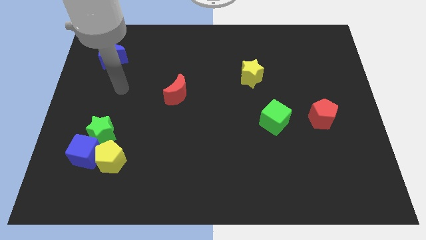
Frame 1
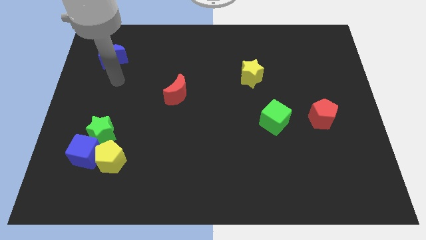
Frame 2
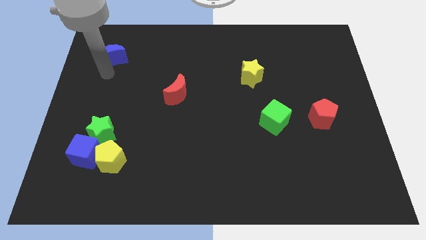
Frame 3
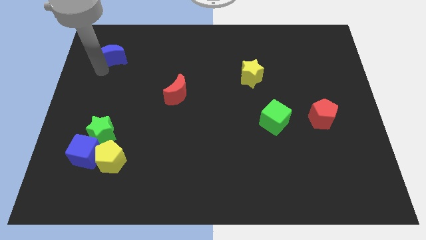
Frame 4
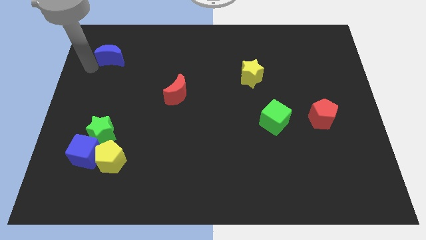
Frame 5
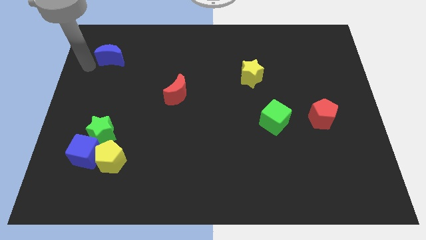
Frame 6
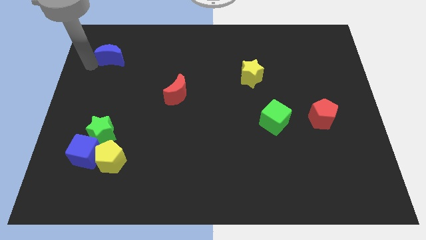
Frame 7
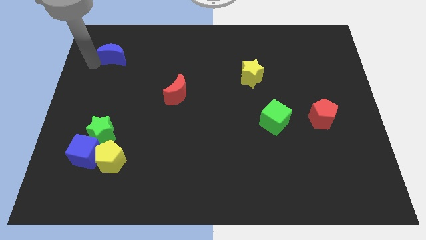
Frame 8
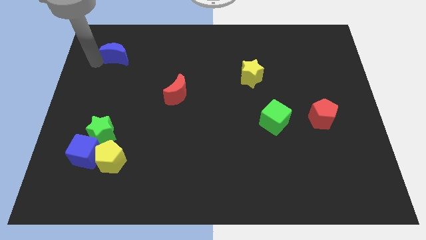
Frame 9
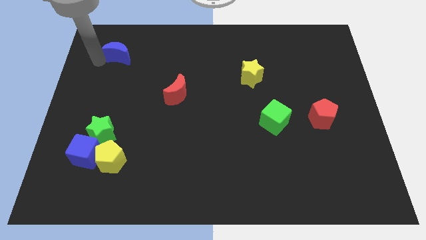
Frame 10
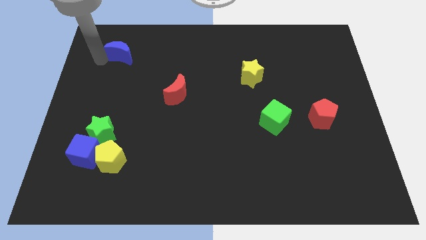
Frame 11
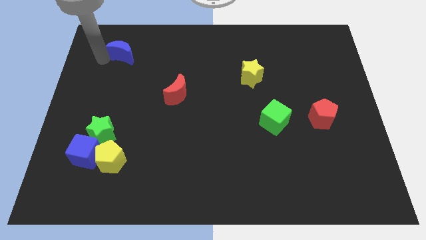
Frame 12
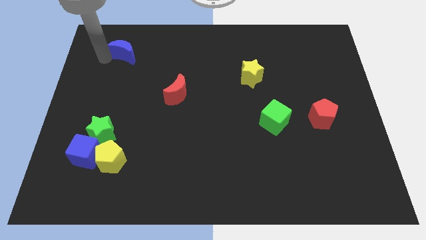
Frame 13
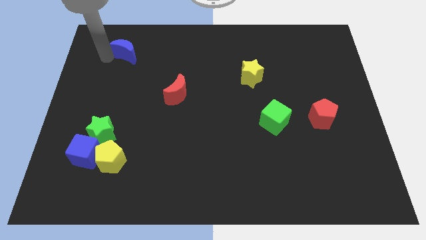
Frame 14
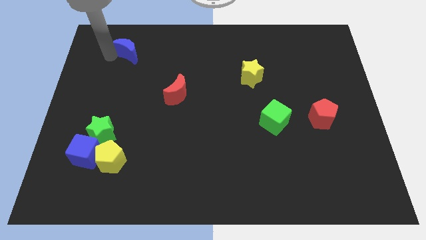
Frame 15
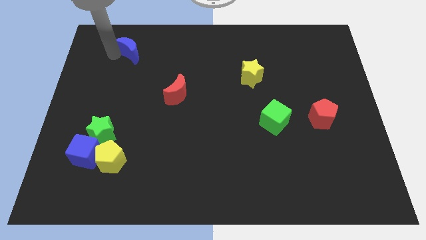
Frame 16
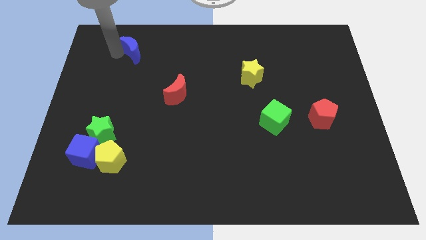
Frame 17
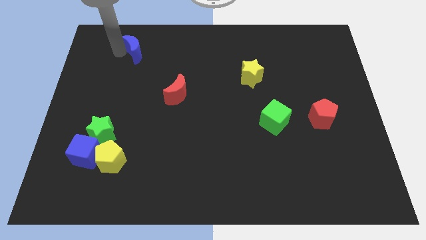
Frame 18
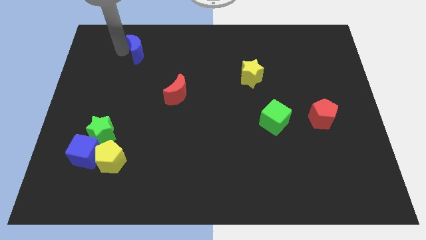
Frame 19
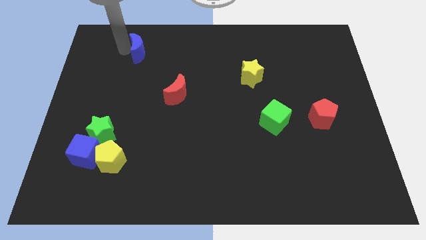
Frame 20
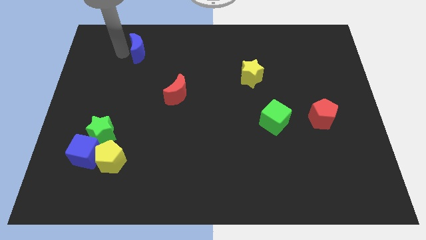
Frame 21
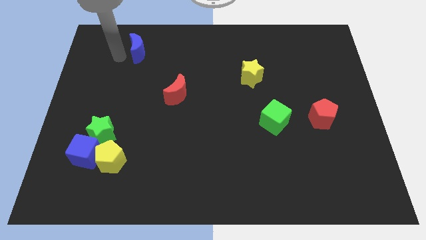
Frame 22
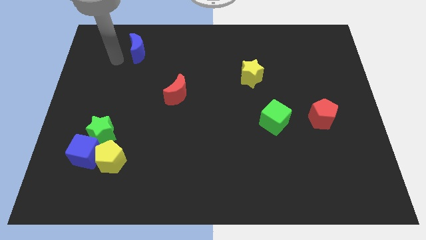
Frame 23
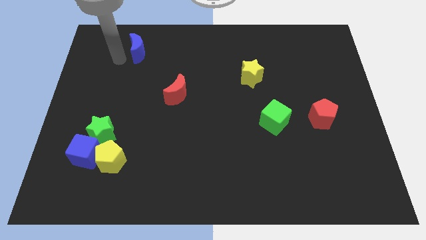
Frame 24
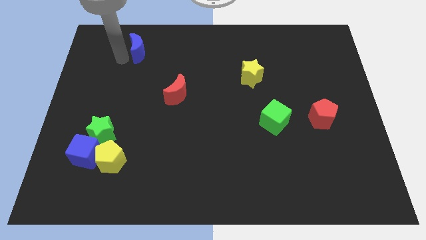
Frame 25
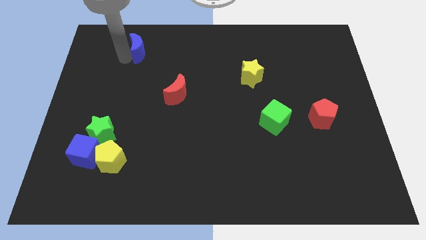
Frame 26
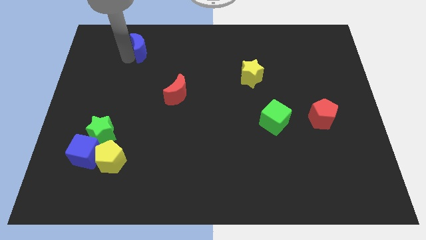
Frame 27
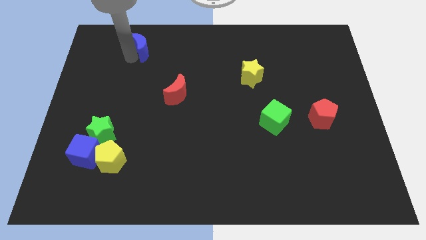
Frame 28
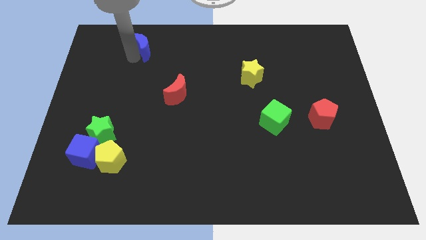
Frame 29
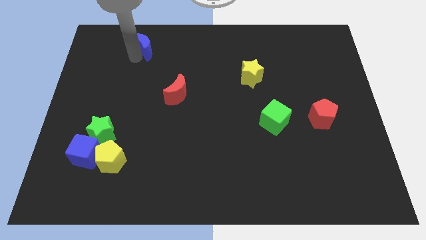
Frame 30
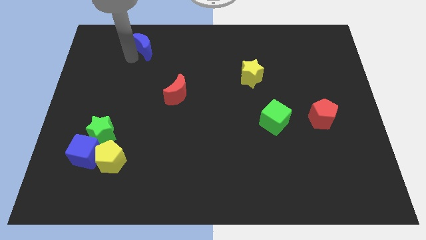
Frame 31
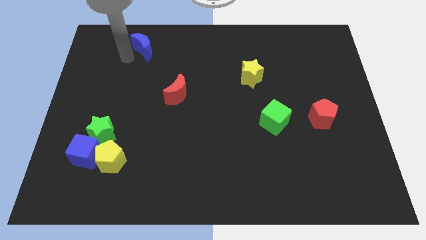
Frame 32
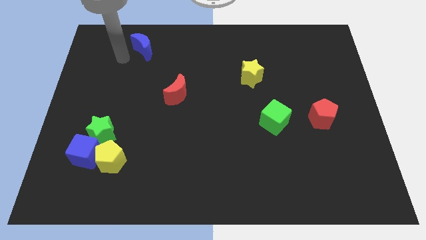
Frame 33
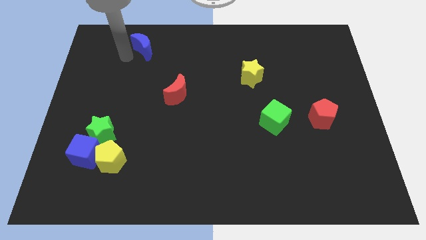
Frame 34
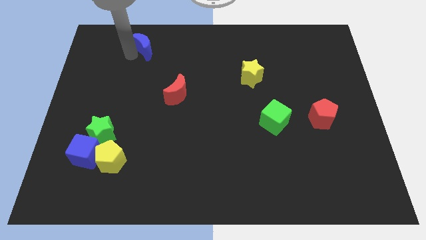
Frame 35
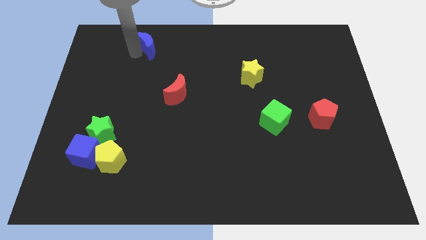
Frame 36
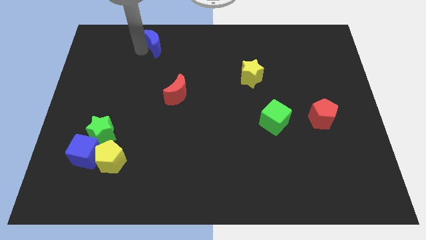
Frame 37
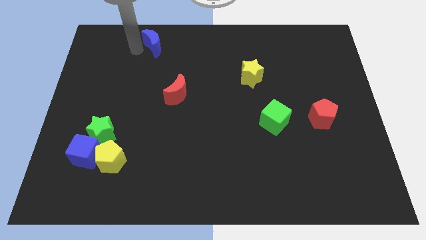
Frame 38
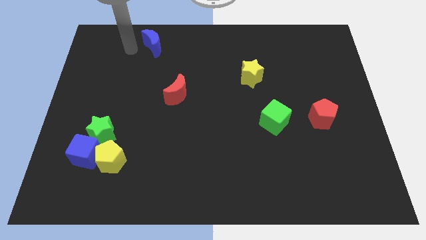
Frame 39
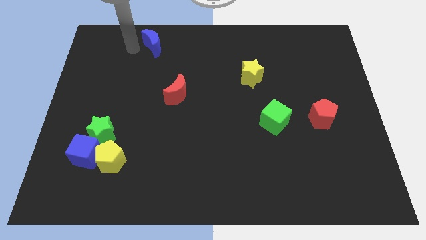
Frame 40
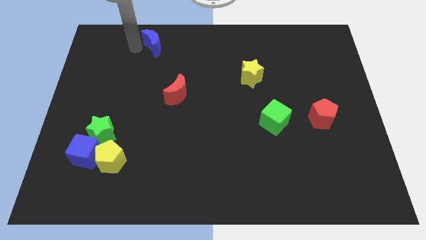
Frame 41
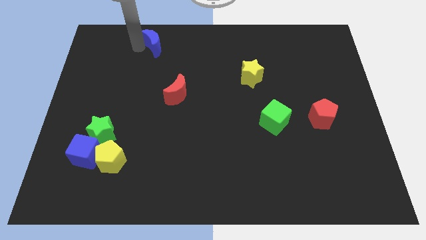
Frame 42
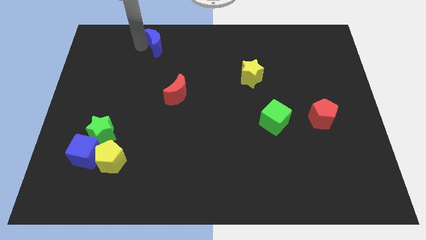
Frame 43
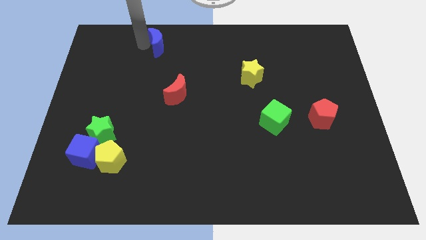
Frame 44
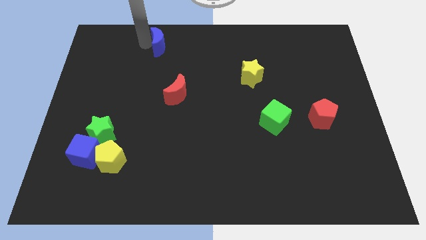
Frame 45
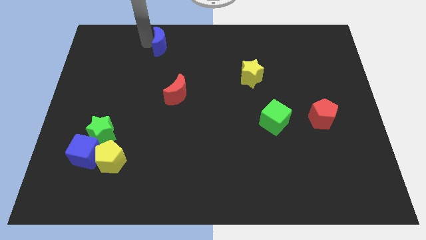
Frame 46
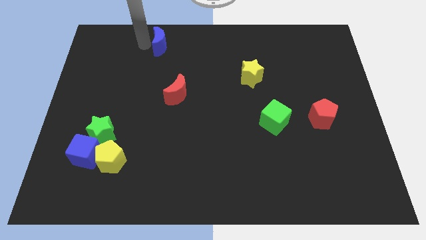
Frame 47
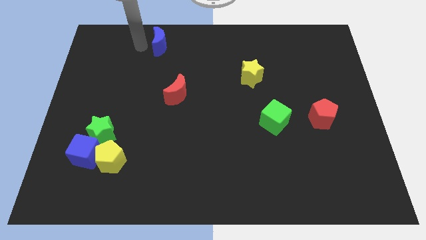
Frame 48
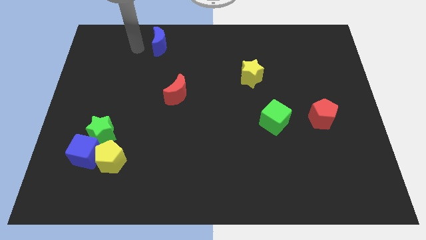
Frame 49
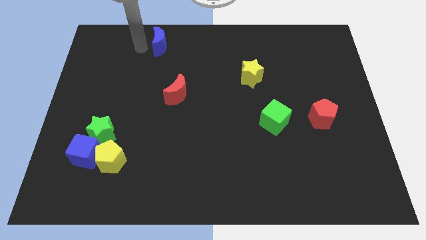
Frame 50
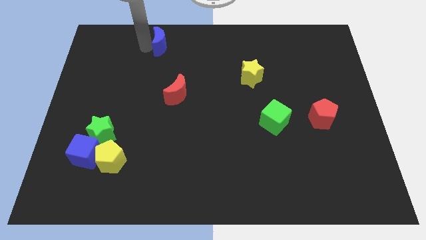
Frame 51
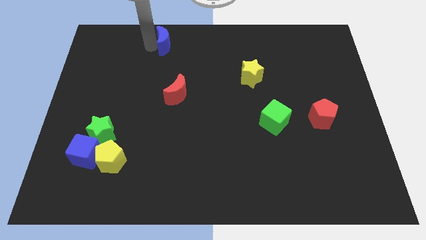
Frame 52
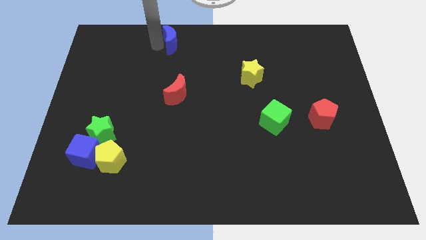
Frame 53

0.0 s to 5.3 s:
push the blue moon to the towards your base

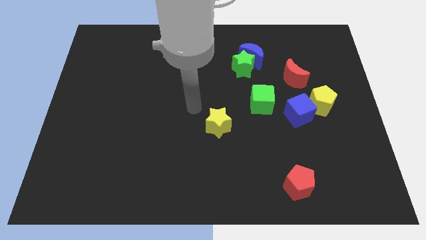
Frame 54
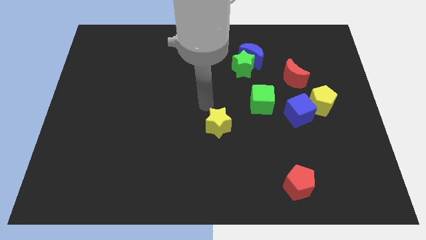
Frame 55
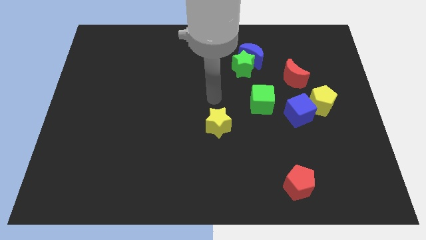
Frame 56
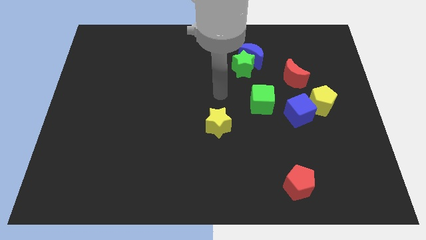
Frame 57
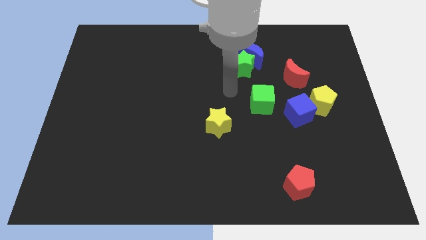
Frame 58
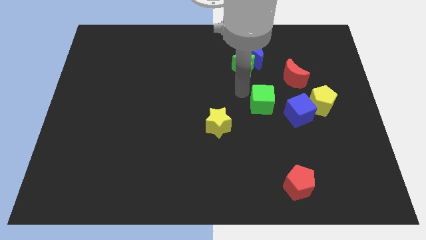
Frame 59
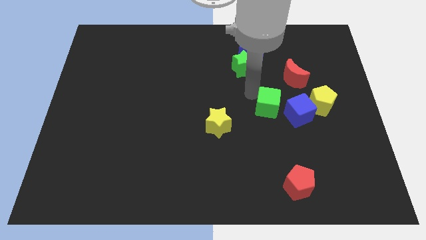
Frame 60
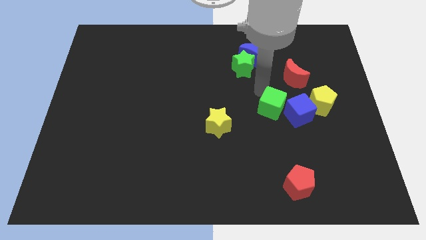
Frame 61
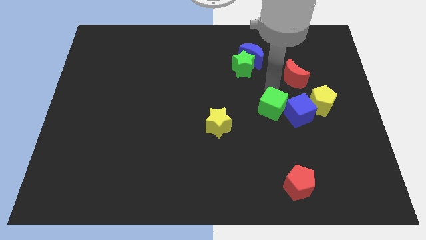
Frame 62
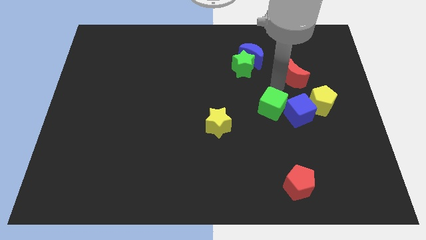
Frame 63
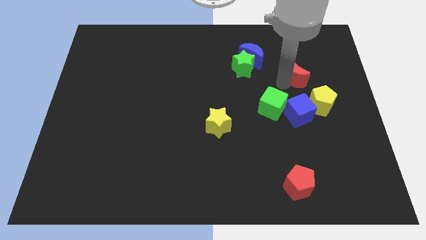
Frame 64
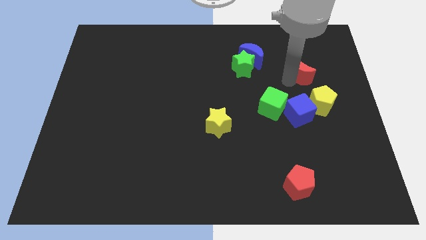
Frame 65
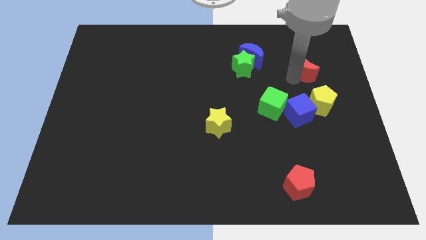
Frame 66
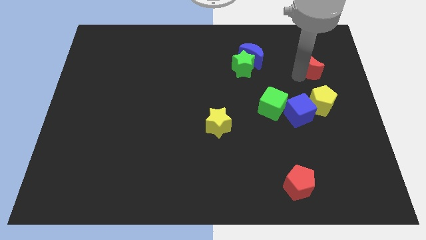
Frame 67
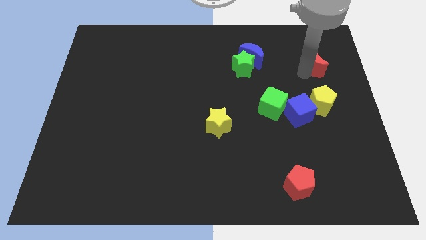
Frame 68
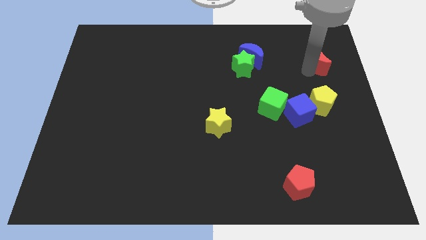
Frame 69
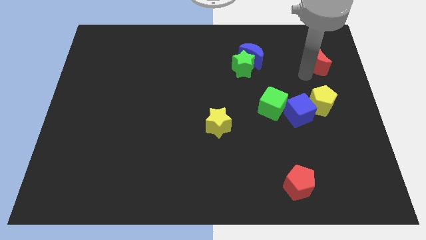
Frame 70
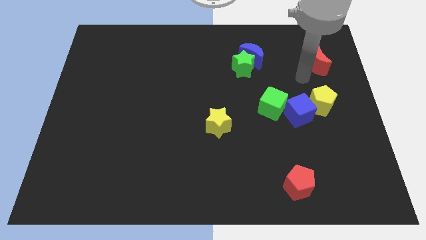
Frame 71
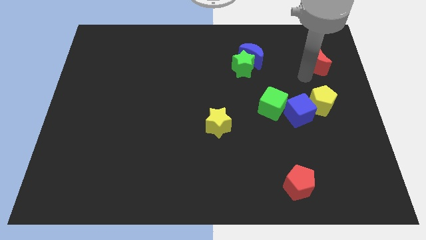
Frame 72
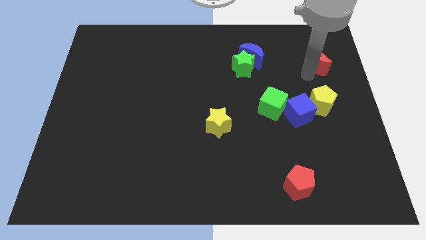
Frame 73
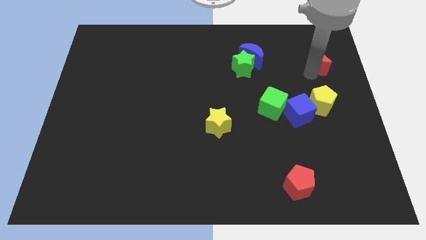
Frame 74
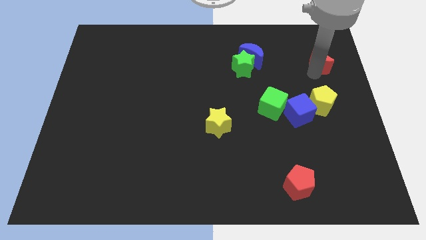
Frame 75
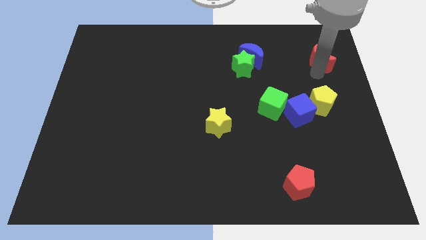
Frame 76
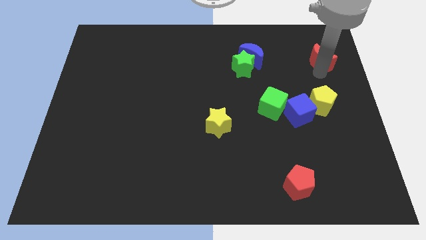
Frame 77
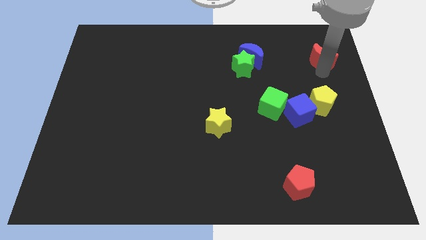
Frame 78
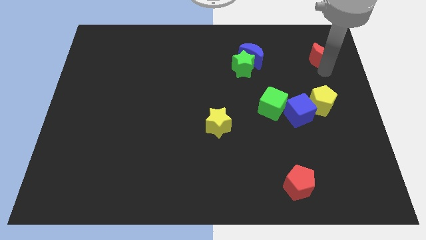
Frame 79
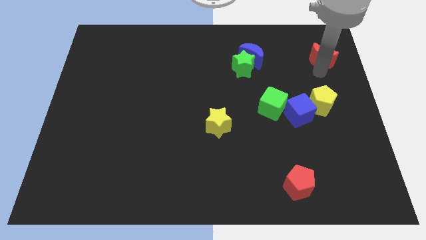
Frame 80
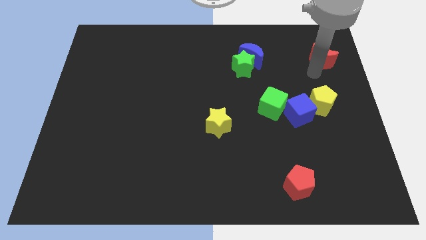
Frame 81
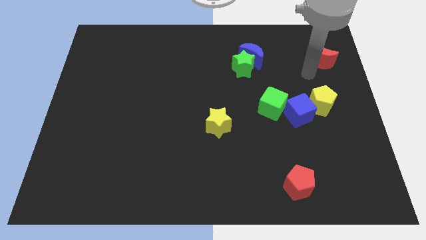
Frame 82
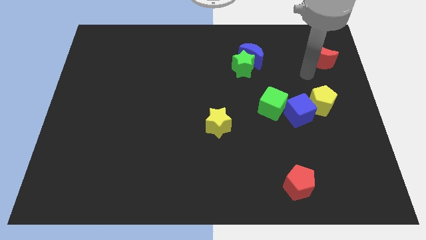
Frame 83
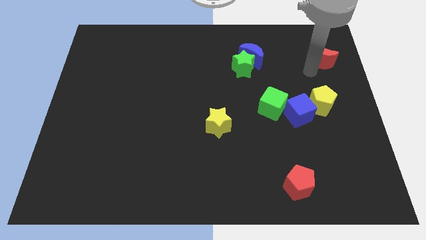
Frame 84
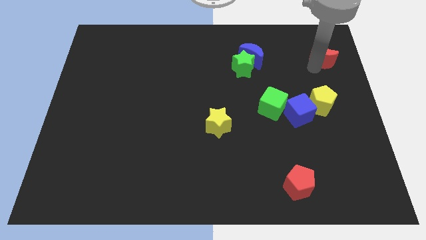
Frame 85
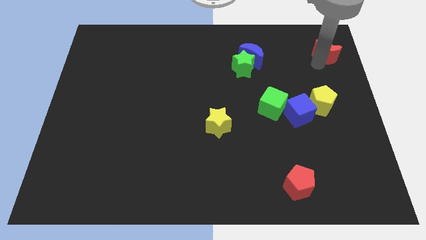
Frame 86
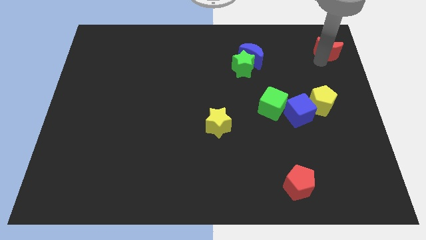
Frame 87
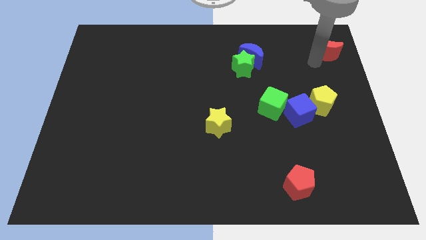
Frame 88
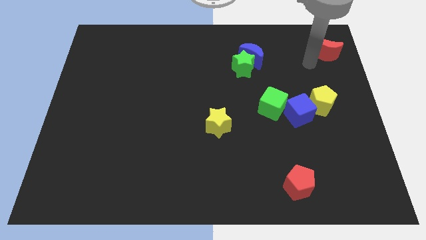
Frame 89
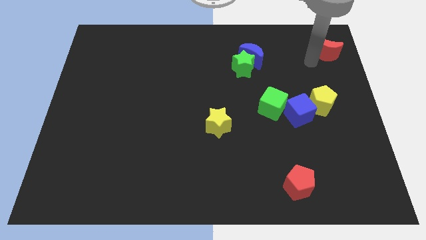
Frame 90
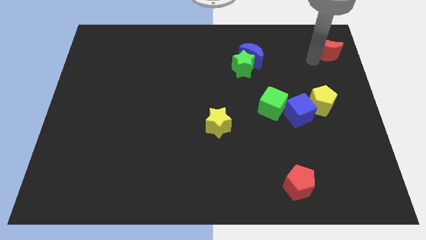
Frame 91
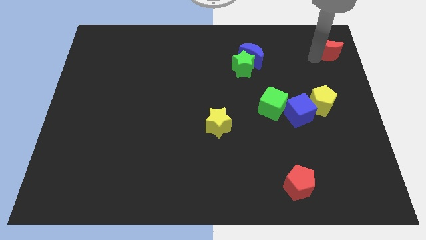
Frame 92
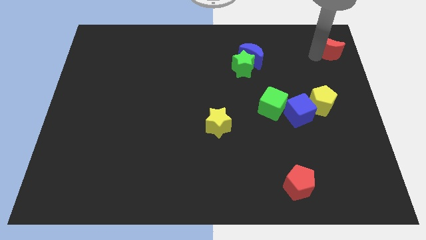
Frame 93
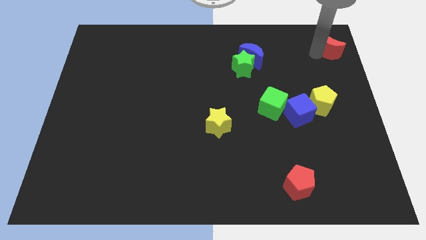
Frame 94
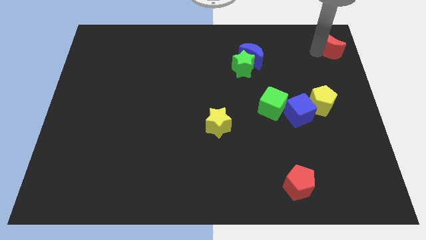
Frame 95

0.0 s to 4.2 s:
move the red moon to the top right corner
